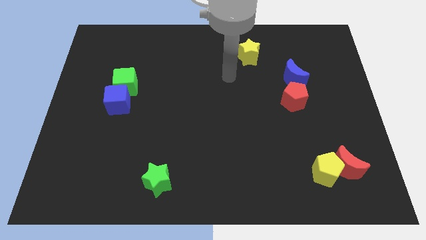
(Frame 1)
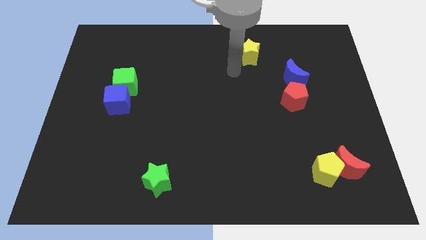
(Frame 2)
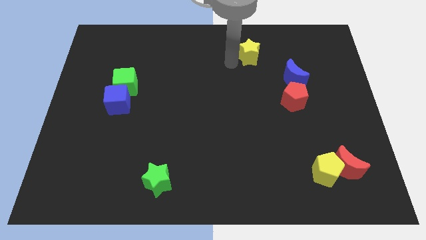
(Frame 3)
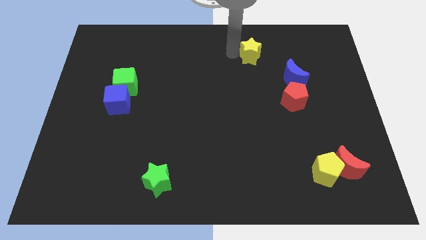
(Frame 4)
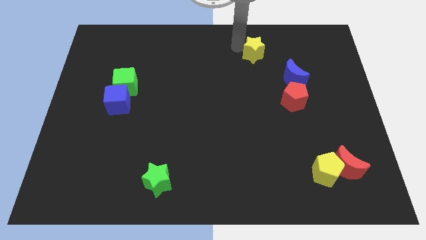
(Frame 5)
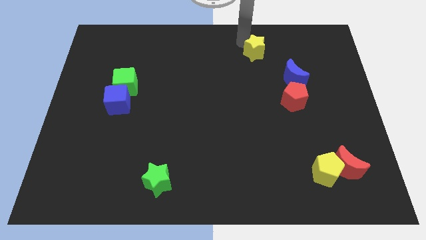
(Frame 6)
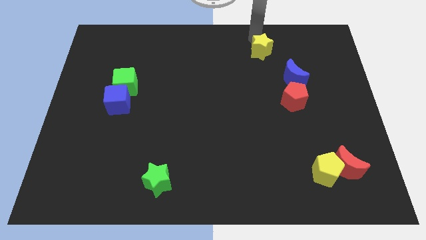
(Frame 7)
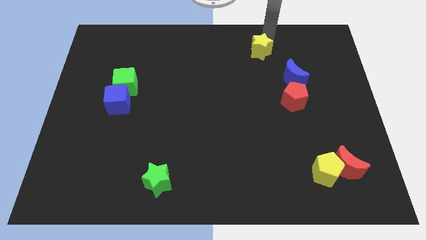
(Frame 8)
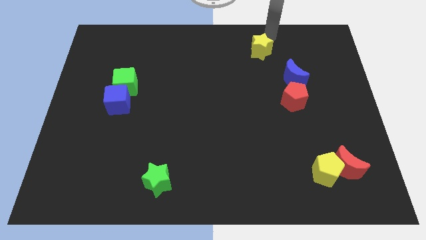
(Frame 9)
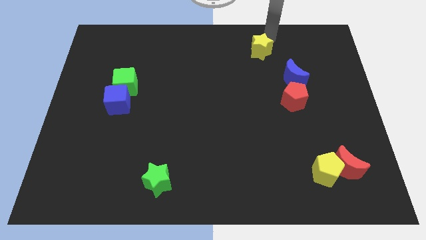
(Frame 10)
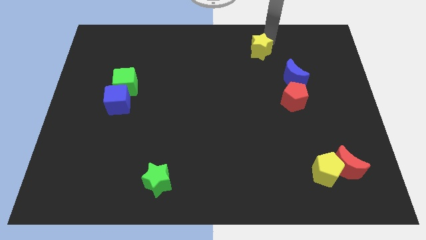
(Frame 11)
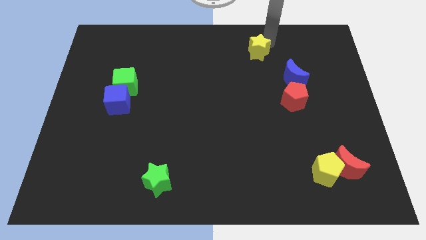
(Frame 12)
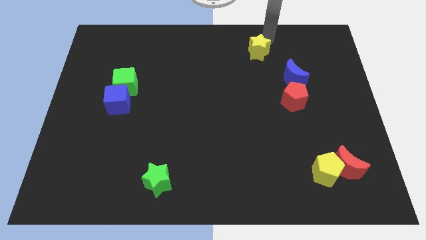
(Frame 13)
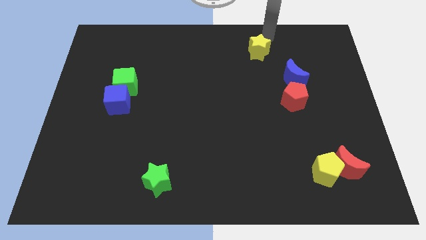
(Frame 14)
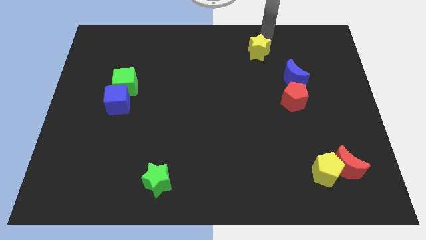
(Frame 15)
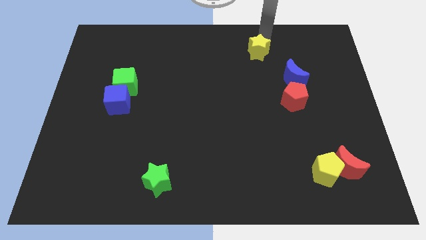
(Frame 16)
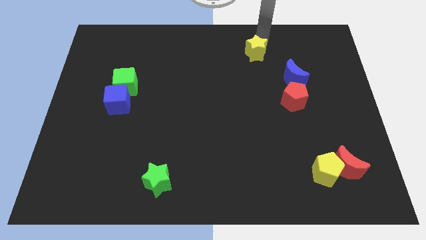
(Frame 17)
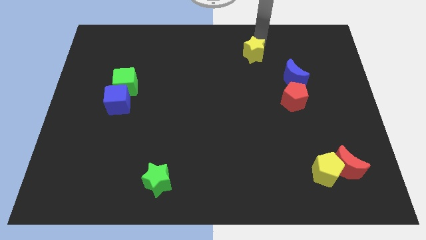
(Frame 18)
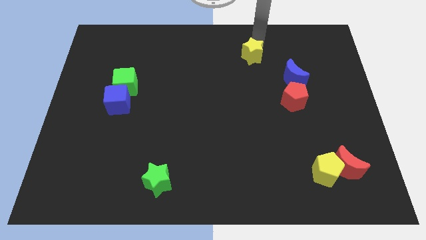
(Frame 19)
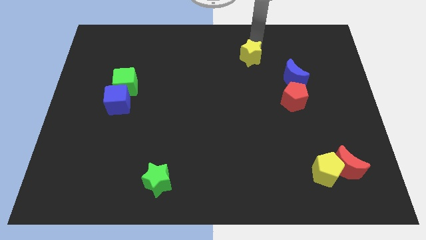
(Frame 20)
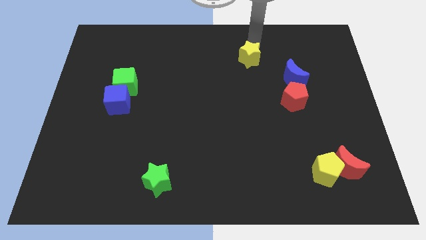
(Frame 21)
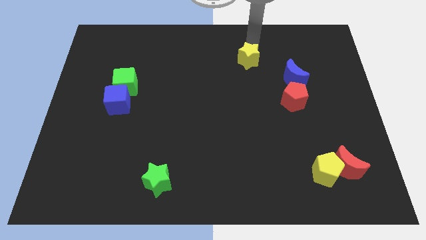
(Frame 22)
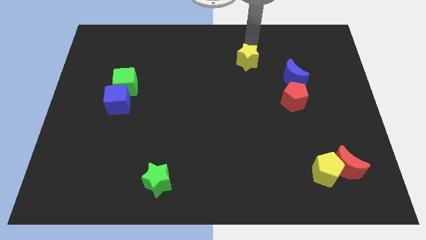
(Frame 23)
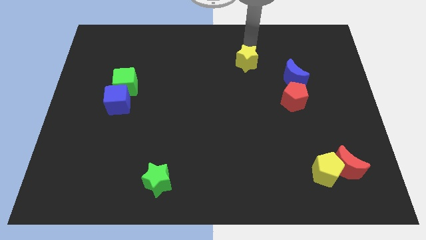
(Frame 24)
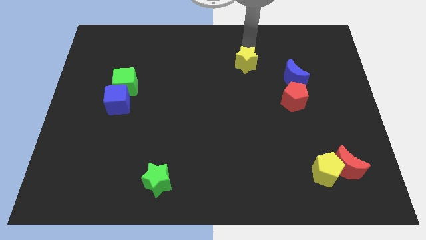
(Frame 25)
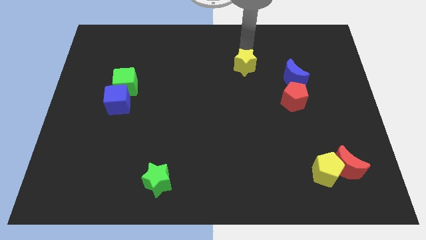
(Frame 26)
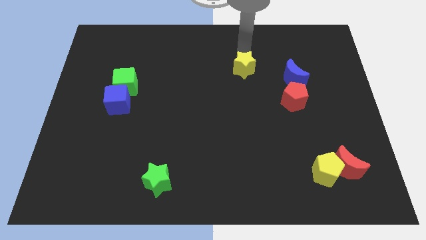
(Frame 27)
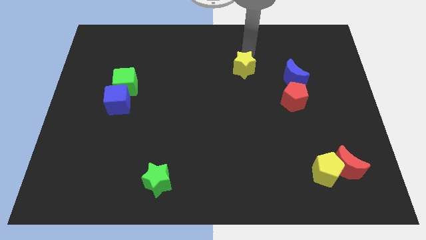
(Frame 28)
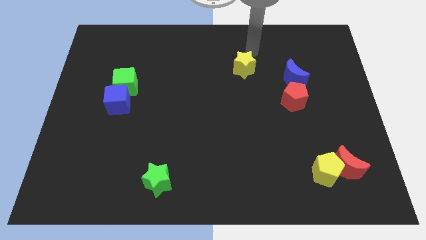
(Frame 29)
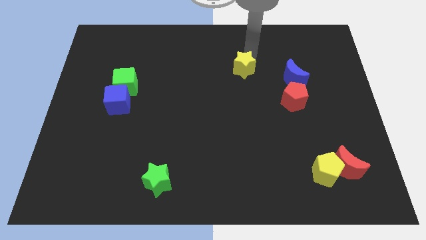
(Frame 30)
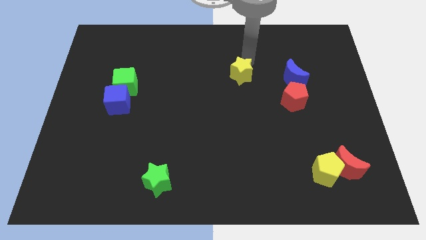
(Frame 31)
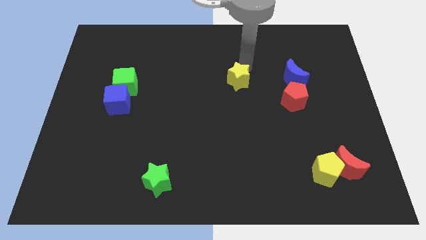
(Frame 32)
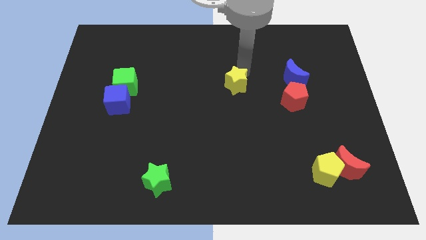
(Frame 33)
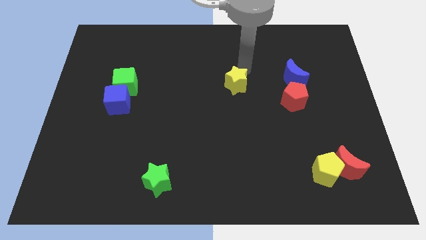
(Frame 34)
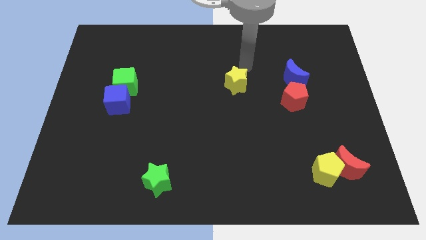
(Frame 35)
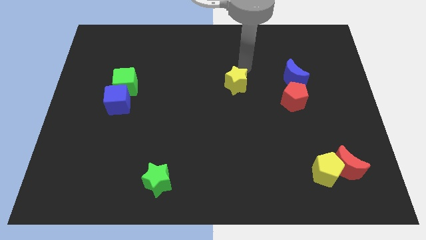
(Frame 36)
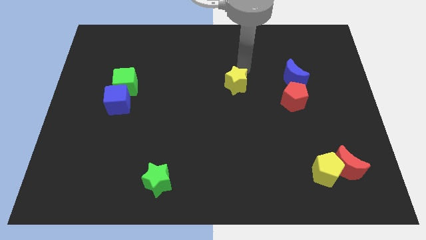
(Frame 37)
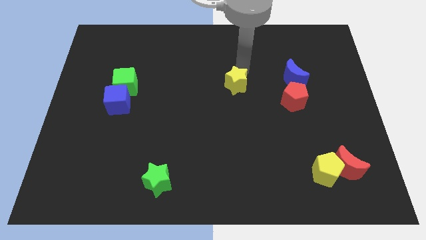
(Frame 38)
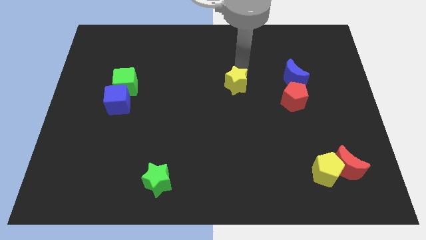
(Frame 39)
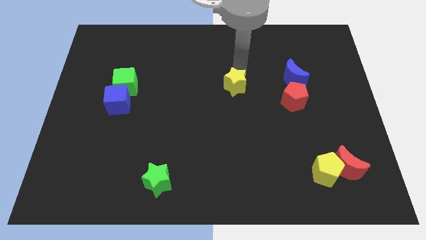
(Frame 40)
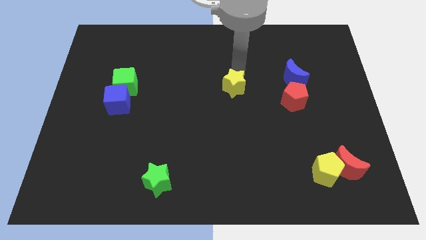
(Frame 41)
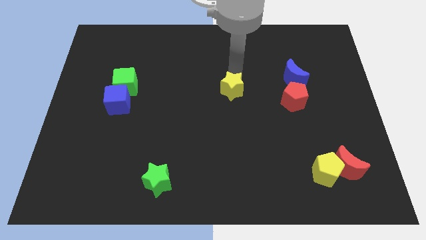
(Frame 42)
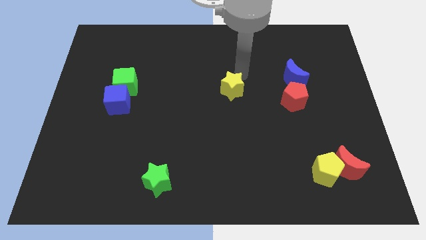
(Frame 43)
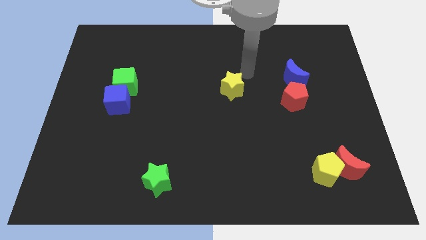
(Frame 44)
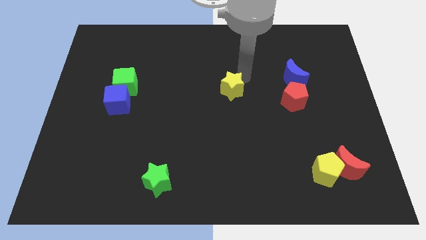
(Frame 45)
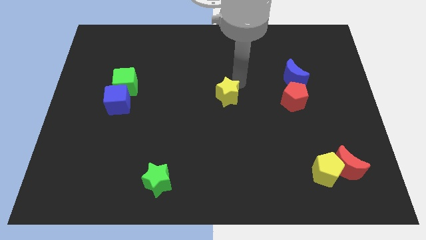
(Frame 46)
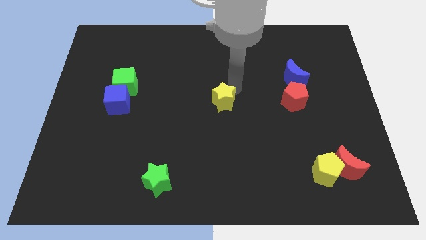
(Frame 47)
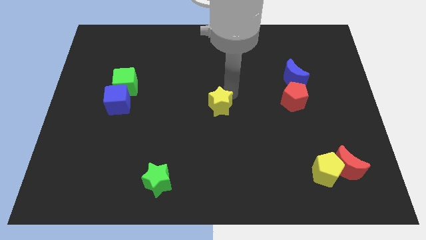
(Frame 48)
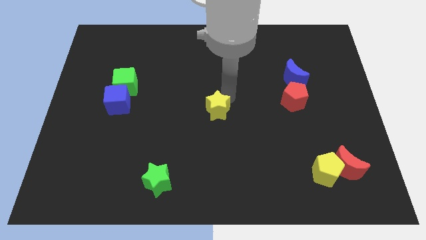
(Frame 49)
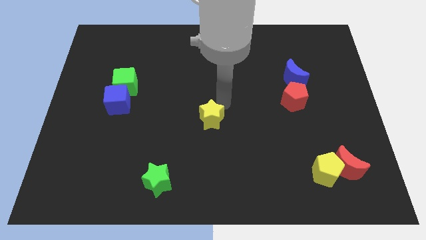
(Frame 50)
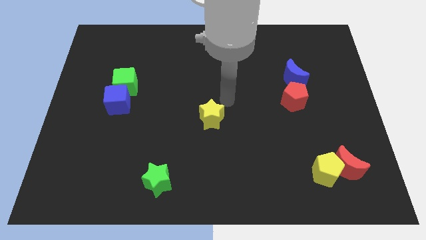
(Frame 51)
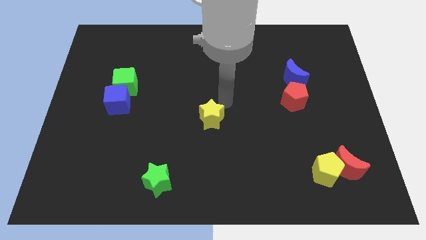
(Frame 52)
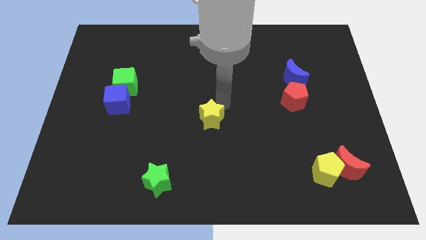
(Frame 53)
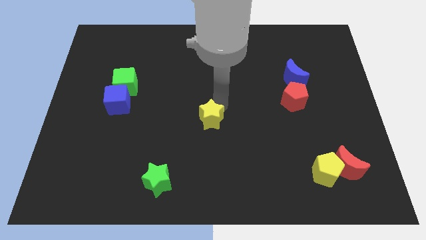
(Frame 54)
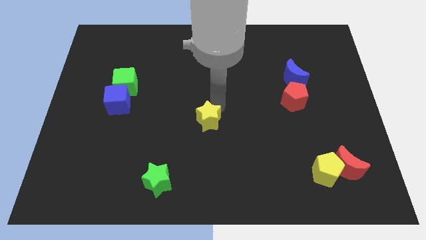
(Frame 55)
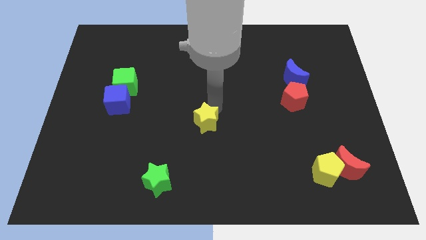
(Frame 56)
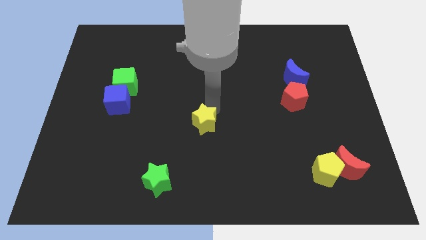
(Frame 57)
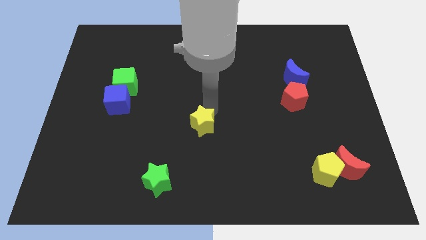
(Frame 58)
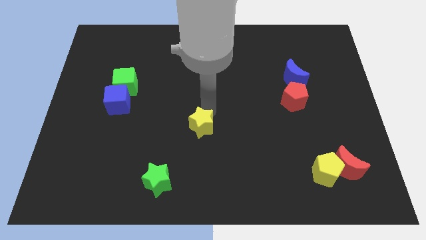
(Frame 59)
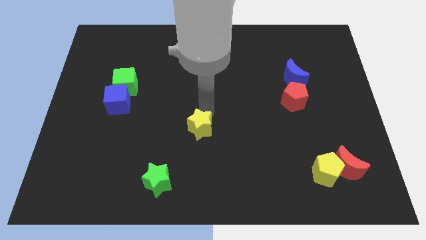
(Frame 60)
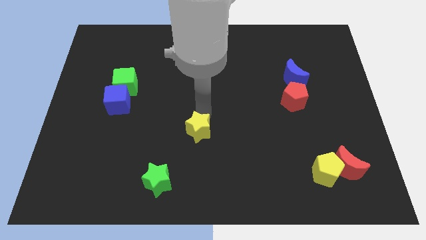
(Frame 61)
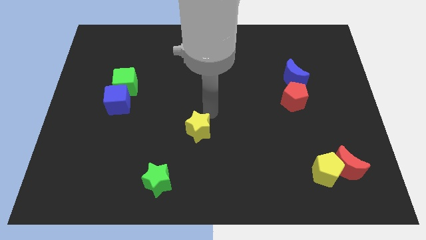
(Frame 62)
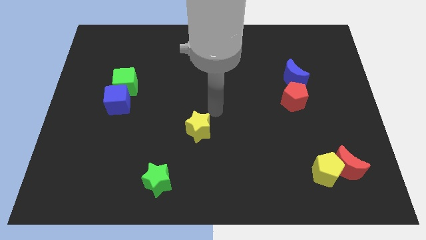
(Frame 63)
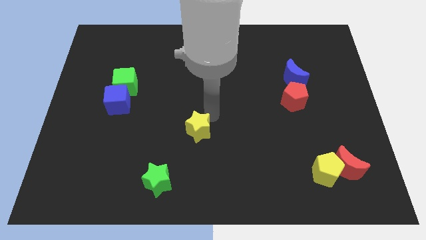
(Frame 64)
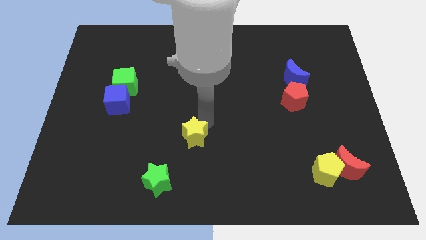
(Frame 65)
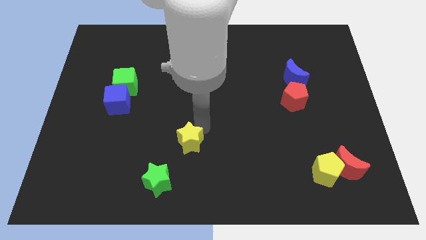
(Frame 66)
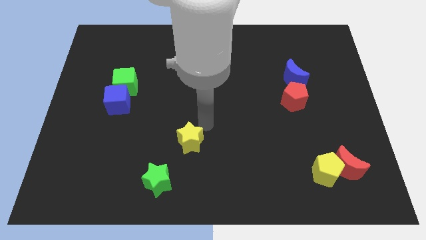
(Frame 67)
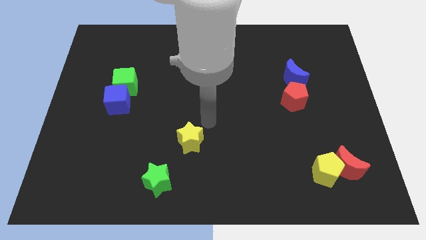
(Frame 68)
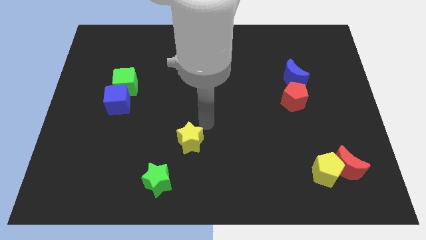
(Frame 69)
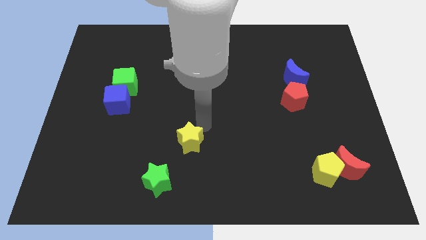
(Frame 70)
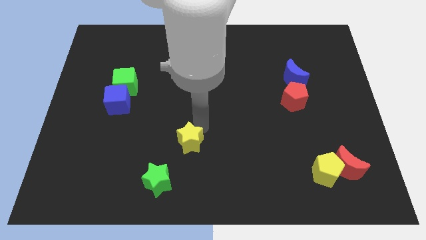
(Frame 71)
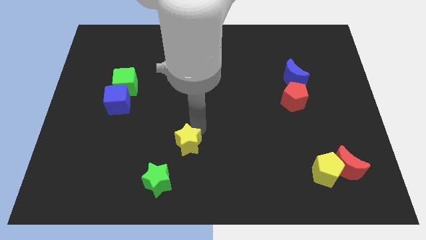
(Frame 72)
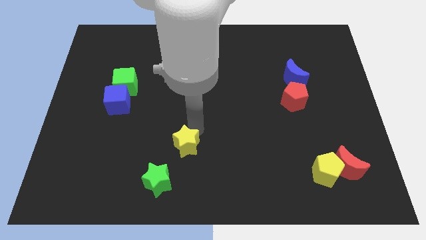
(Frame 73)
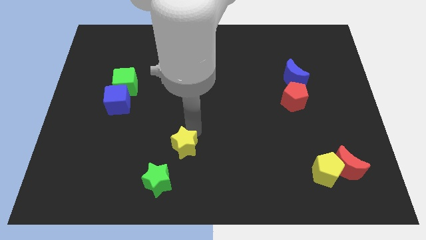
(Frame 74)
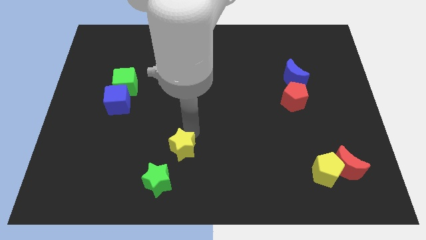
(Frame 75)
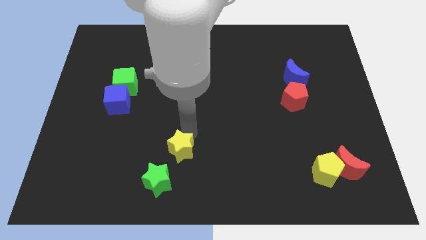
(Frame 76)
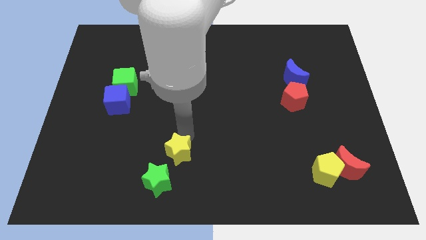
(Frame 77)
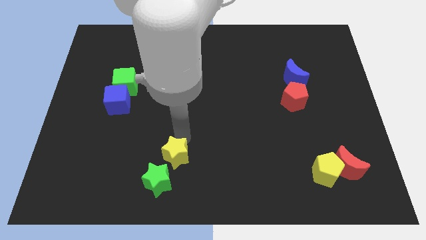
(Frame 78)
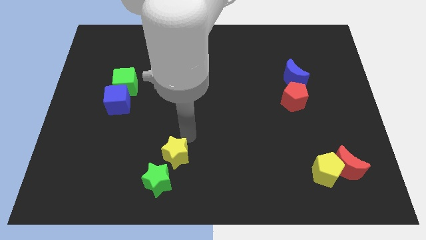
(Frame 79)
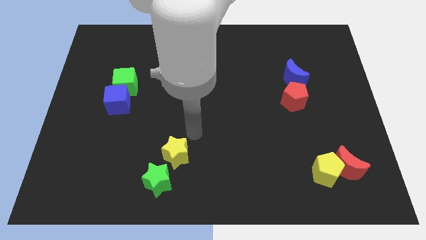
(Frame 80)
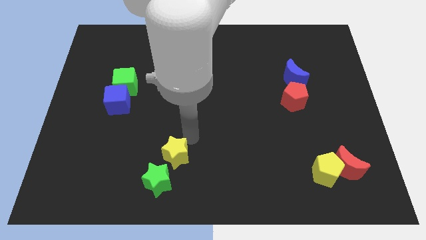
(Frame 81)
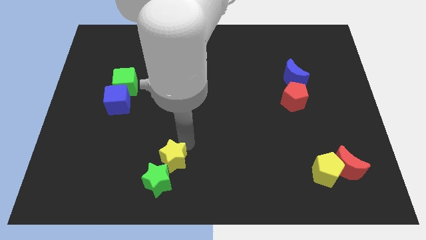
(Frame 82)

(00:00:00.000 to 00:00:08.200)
slide the yellow star next to the green star

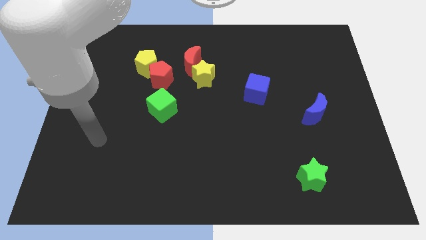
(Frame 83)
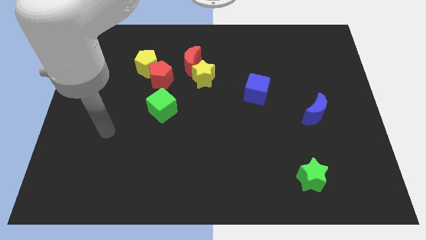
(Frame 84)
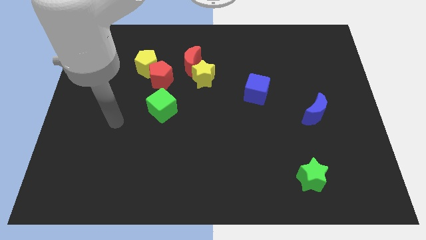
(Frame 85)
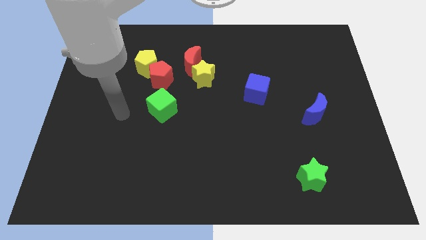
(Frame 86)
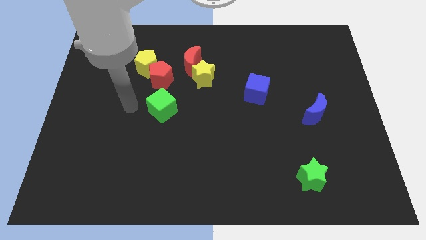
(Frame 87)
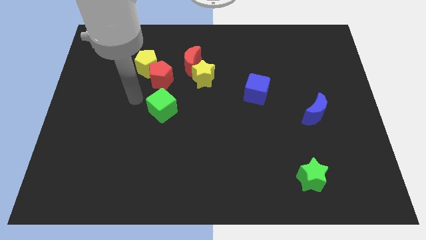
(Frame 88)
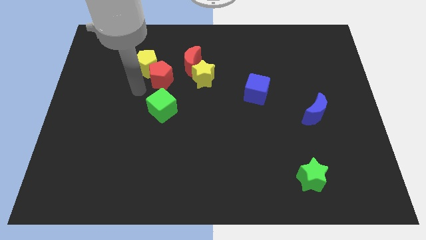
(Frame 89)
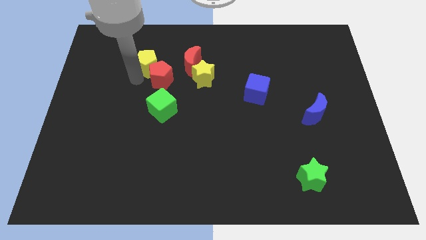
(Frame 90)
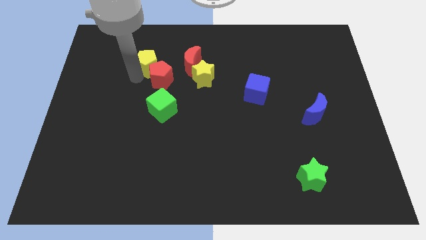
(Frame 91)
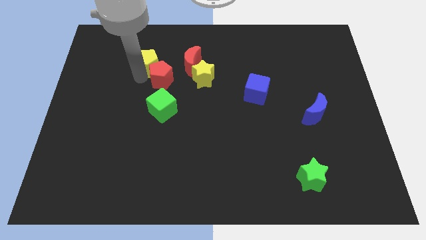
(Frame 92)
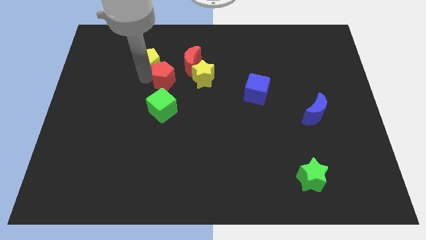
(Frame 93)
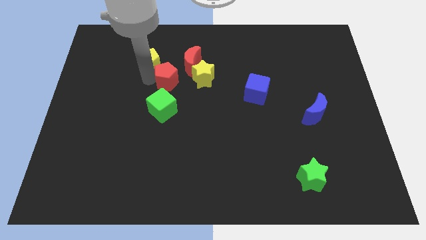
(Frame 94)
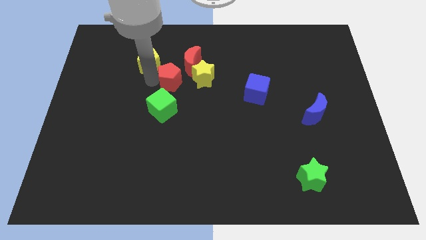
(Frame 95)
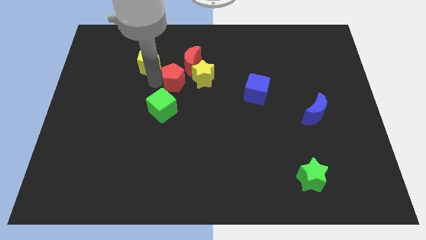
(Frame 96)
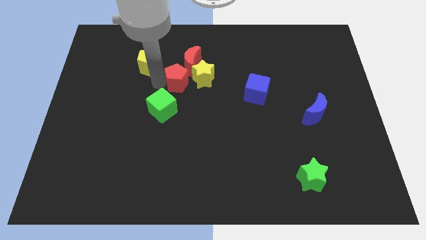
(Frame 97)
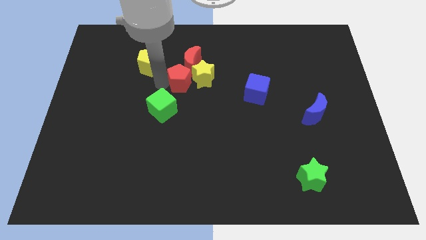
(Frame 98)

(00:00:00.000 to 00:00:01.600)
put the red pentagon next to the yellow star
